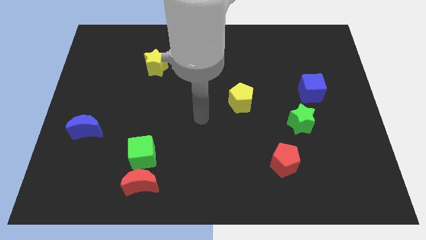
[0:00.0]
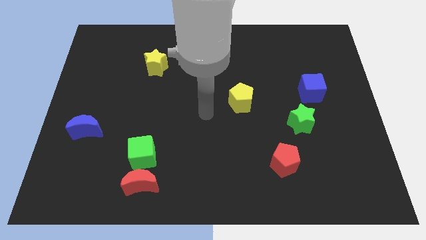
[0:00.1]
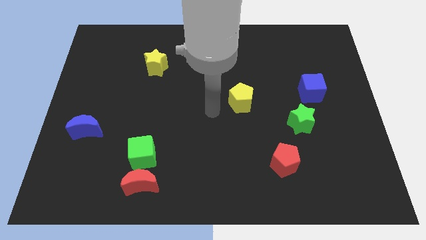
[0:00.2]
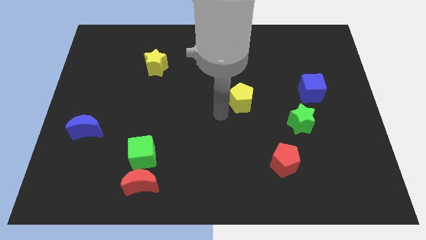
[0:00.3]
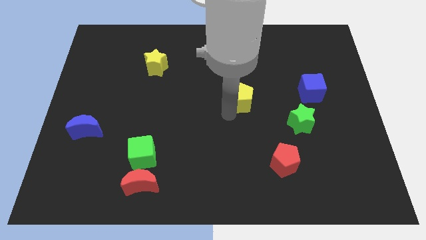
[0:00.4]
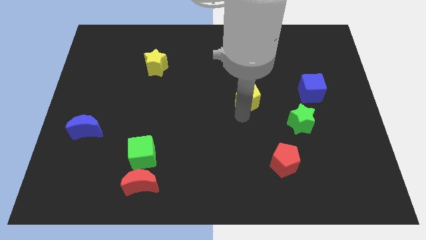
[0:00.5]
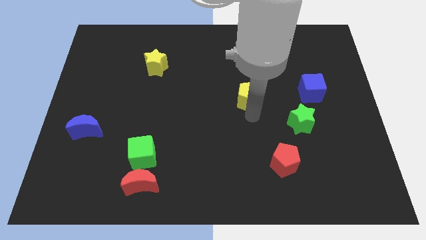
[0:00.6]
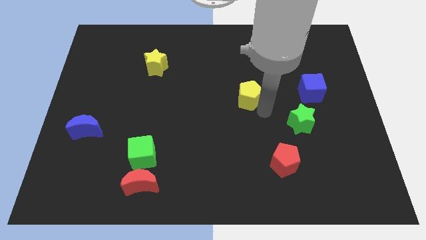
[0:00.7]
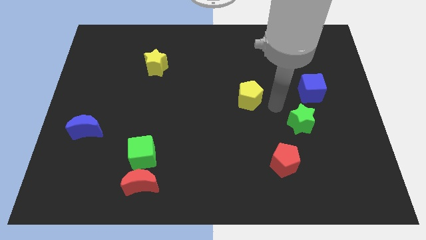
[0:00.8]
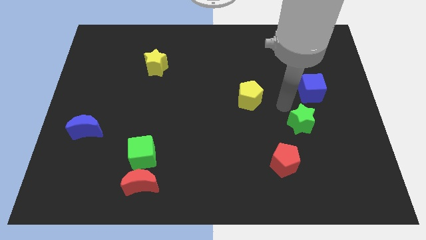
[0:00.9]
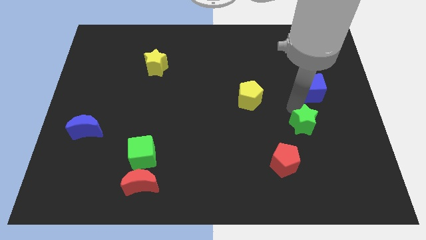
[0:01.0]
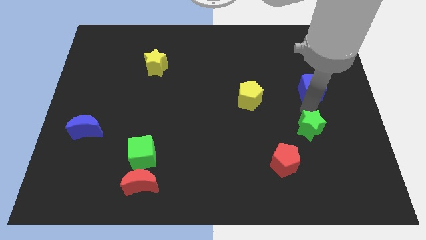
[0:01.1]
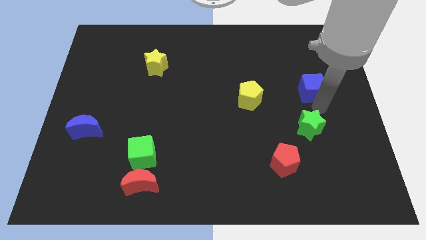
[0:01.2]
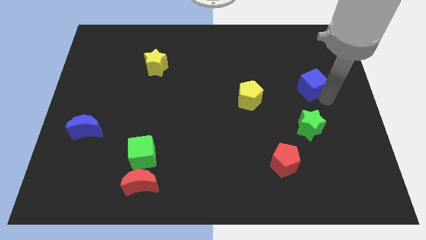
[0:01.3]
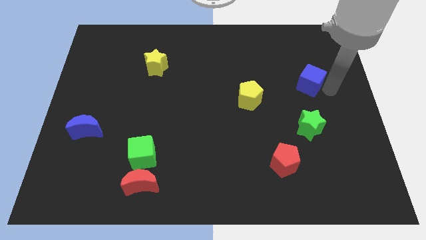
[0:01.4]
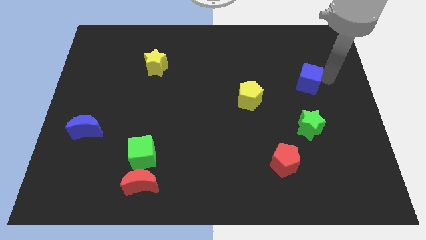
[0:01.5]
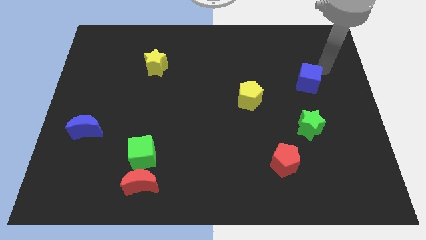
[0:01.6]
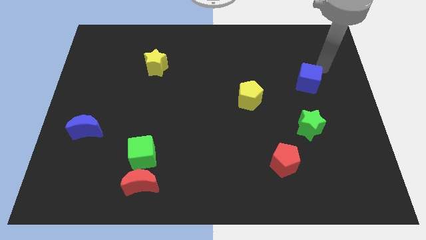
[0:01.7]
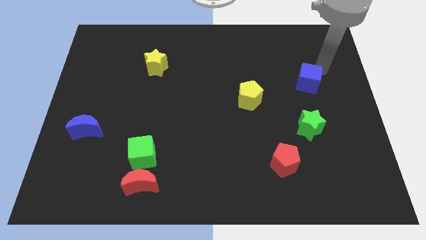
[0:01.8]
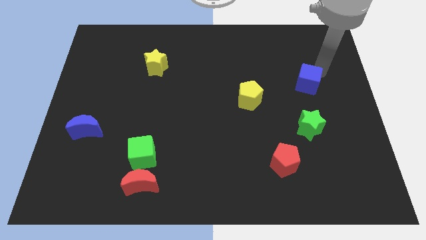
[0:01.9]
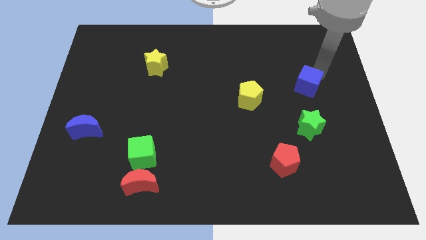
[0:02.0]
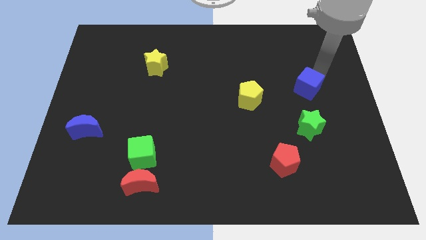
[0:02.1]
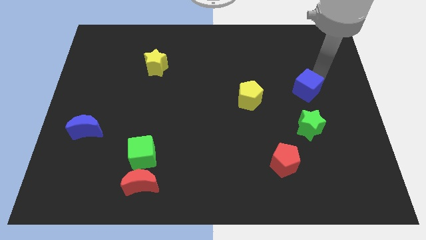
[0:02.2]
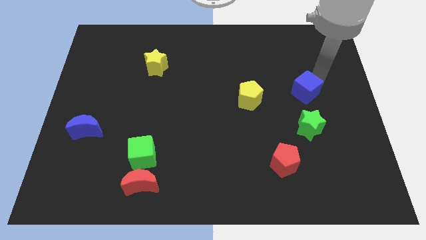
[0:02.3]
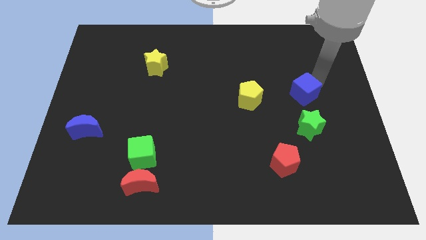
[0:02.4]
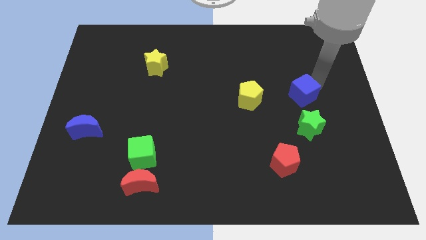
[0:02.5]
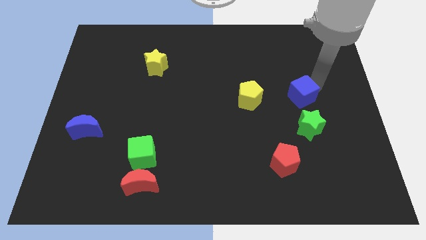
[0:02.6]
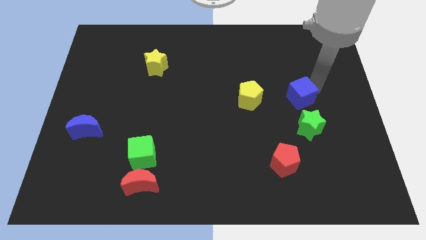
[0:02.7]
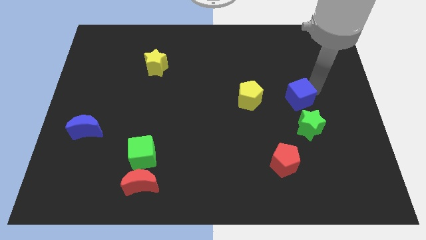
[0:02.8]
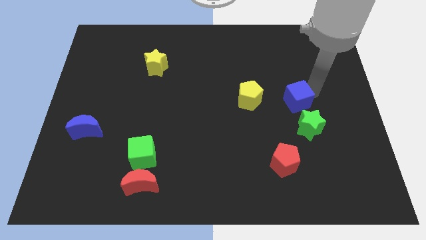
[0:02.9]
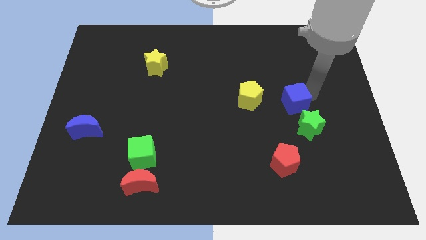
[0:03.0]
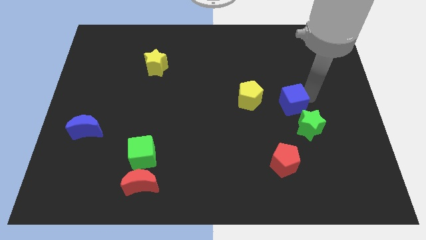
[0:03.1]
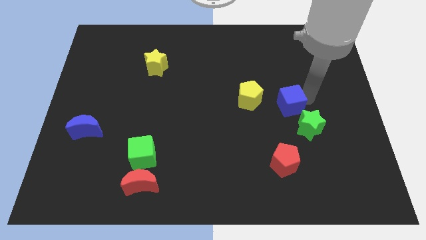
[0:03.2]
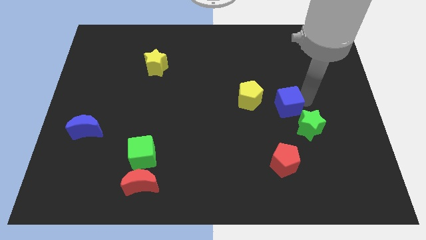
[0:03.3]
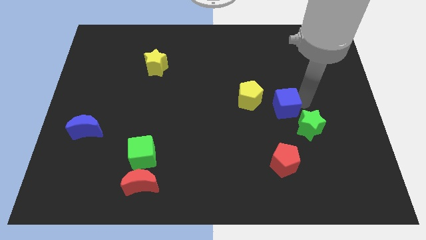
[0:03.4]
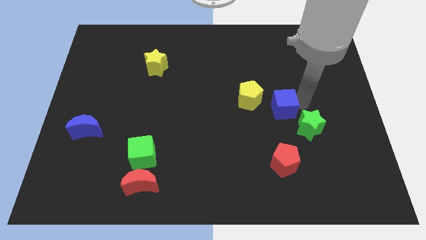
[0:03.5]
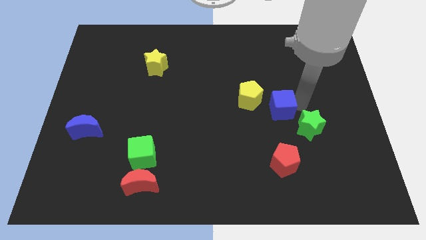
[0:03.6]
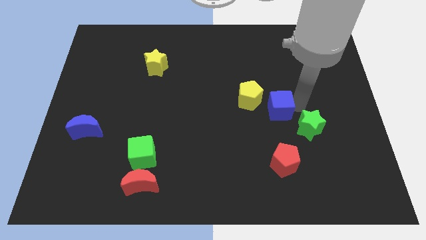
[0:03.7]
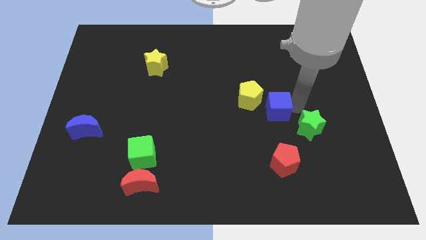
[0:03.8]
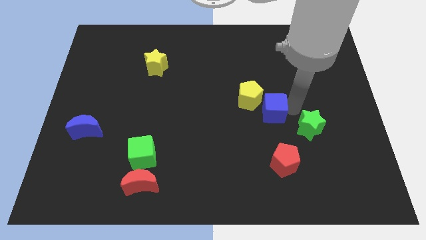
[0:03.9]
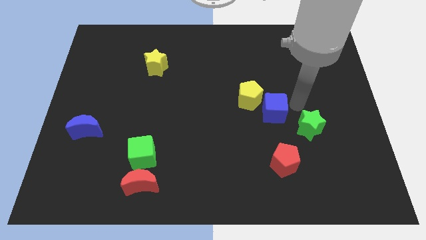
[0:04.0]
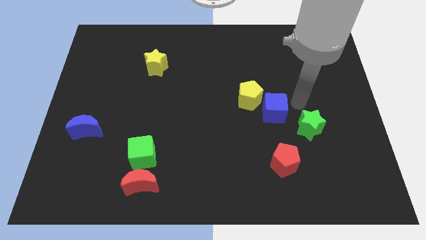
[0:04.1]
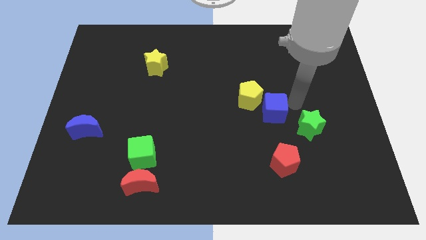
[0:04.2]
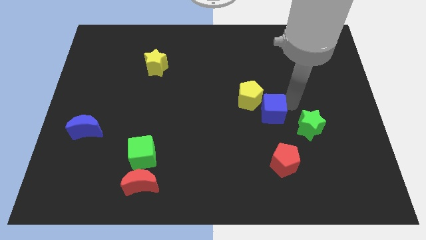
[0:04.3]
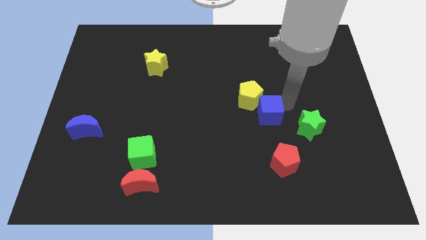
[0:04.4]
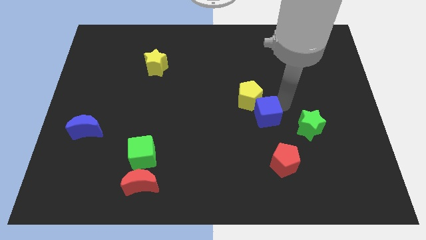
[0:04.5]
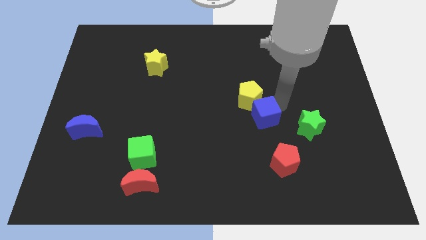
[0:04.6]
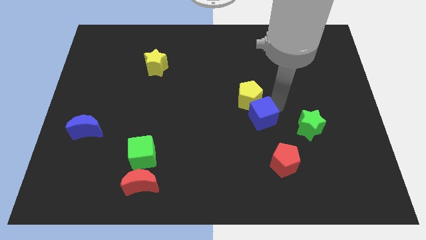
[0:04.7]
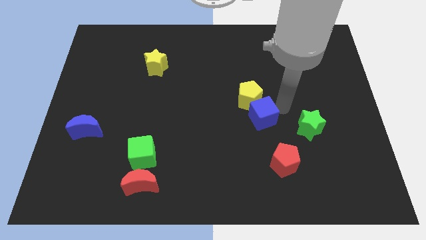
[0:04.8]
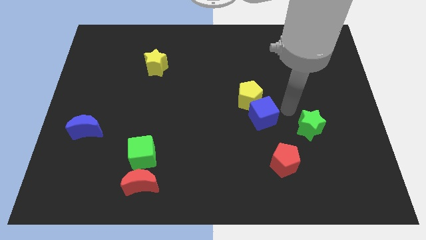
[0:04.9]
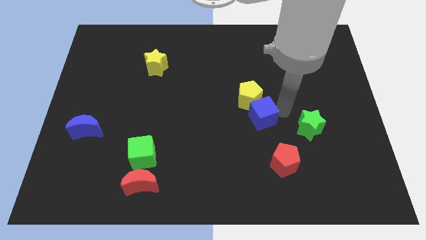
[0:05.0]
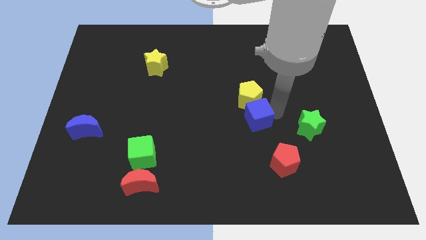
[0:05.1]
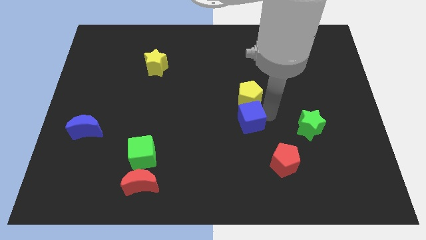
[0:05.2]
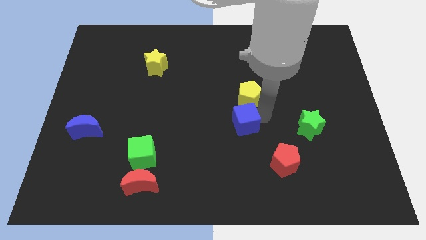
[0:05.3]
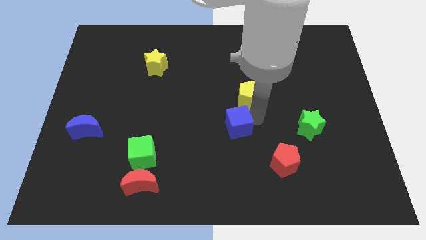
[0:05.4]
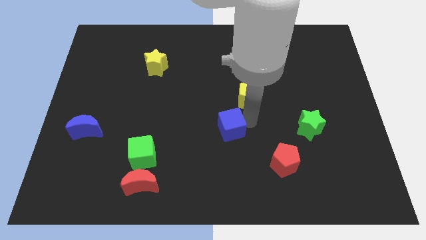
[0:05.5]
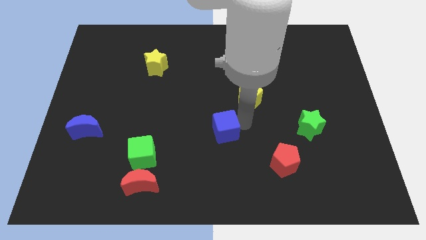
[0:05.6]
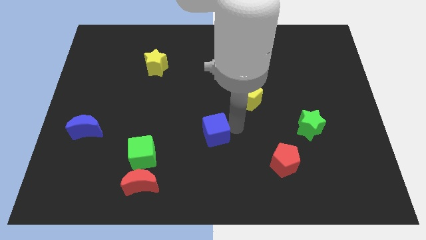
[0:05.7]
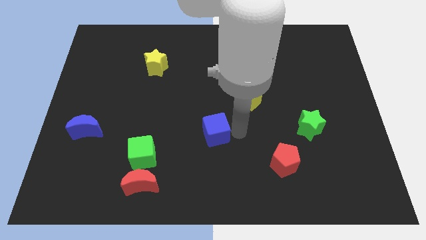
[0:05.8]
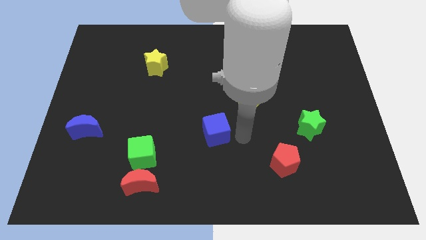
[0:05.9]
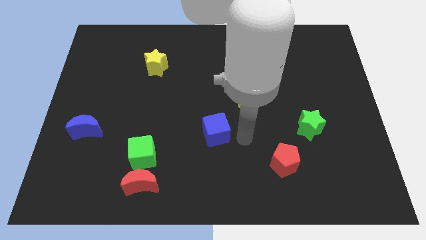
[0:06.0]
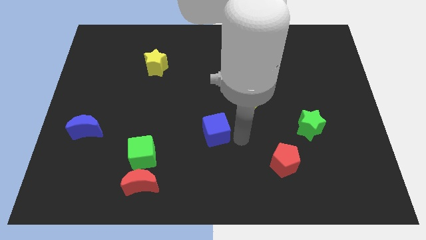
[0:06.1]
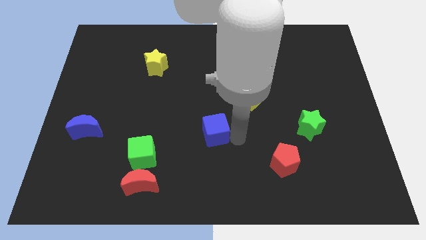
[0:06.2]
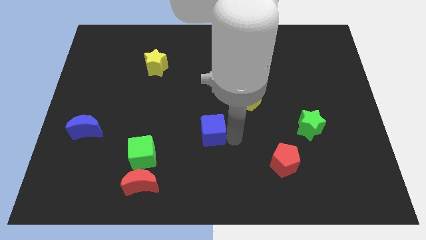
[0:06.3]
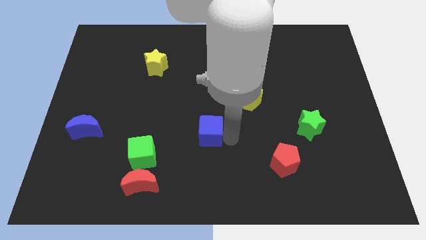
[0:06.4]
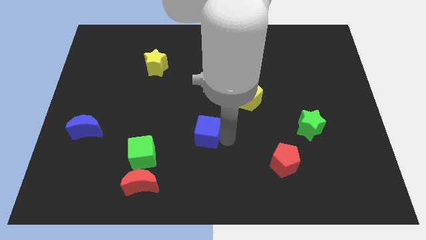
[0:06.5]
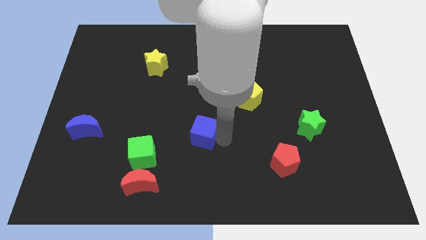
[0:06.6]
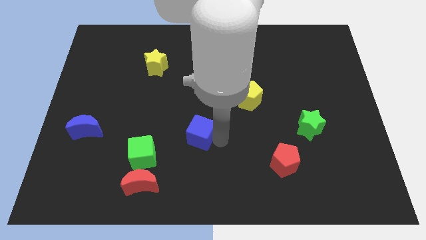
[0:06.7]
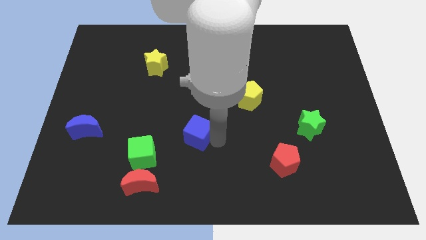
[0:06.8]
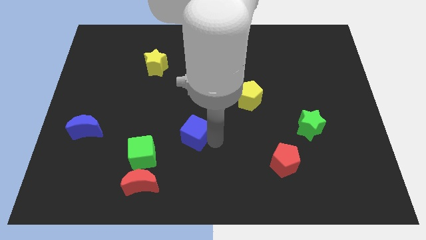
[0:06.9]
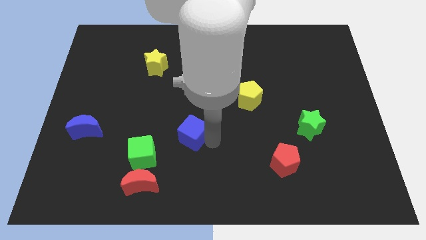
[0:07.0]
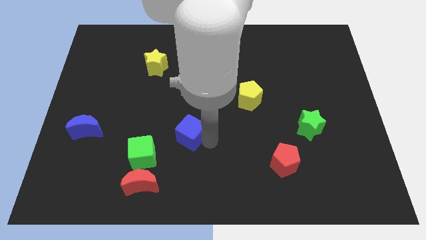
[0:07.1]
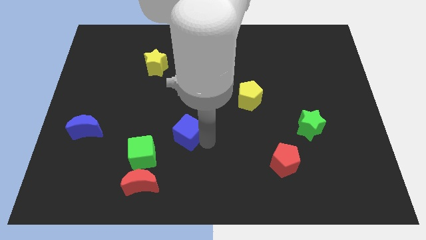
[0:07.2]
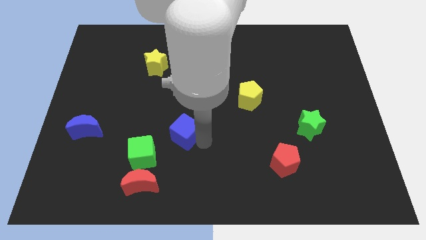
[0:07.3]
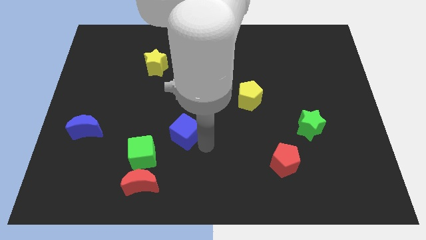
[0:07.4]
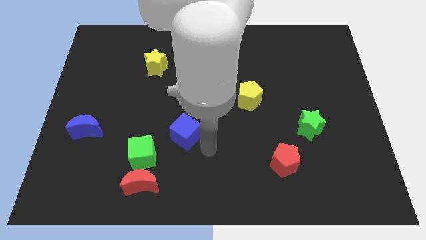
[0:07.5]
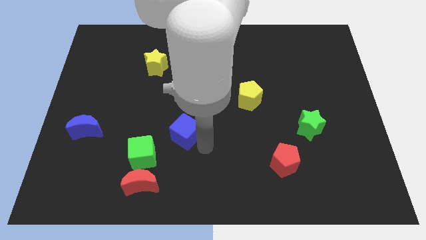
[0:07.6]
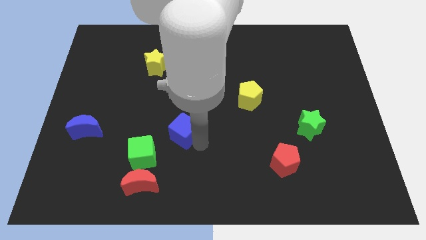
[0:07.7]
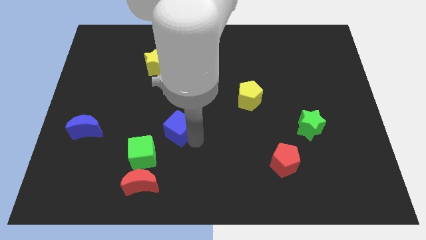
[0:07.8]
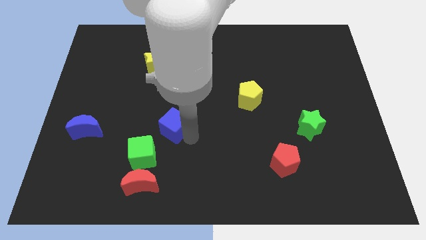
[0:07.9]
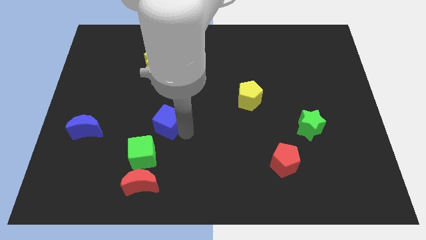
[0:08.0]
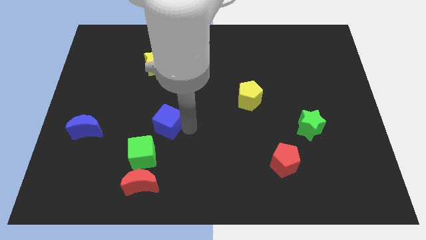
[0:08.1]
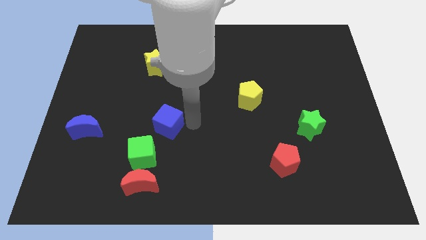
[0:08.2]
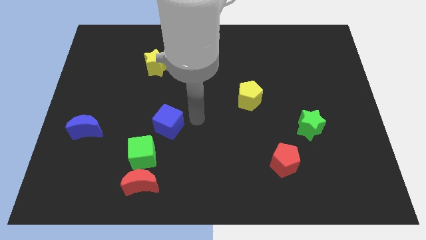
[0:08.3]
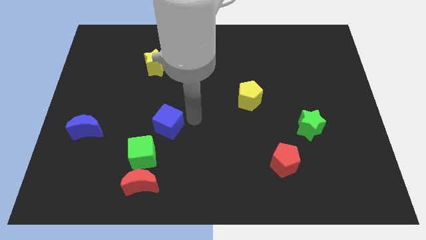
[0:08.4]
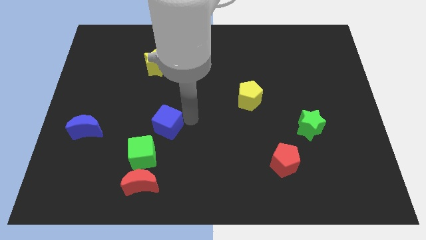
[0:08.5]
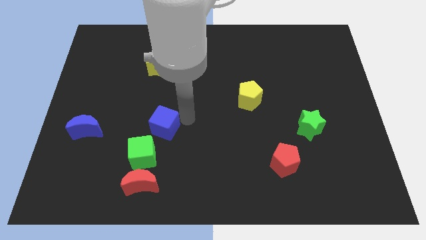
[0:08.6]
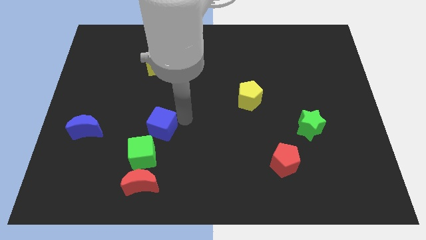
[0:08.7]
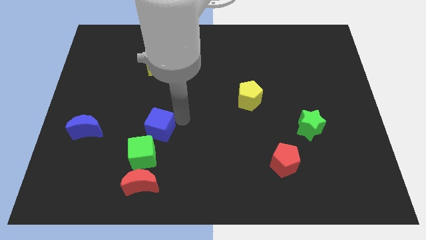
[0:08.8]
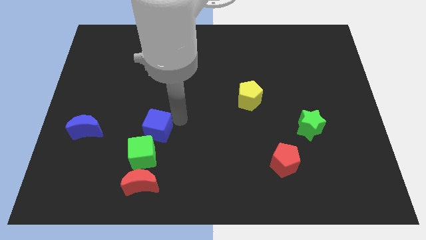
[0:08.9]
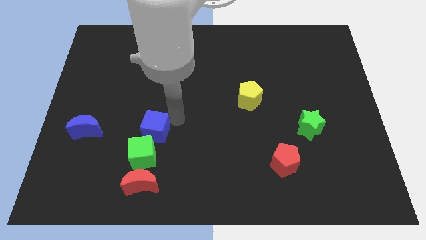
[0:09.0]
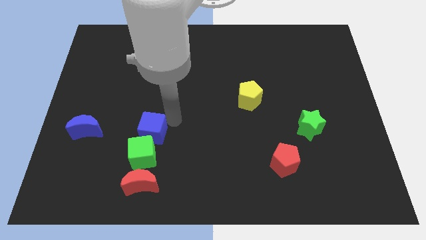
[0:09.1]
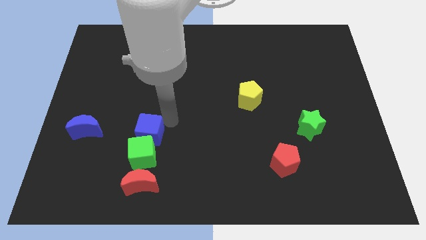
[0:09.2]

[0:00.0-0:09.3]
move the blue cube to the top left of the green cube
